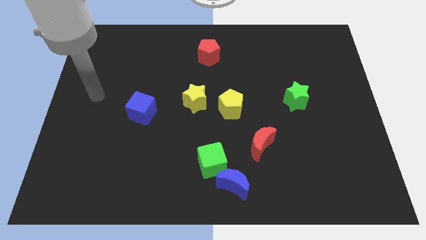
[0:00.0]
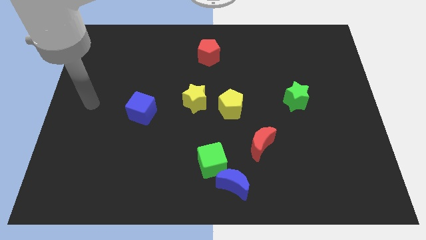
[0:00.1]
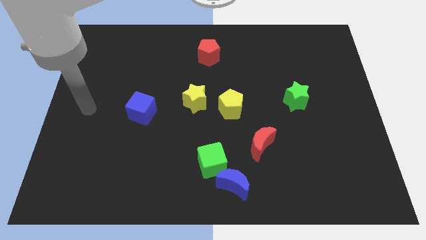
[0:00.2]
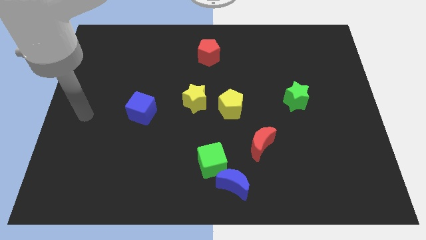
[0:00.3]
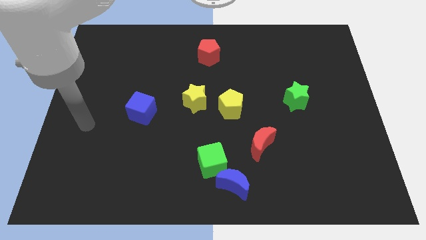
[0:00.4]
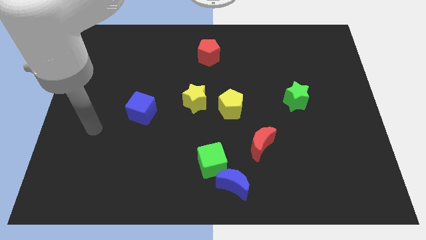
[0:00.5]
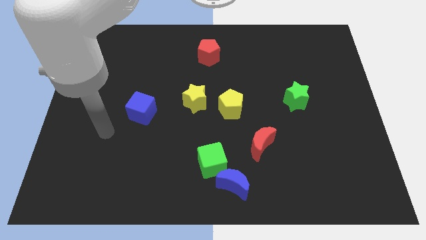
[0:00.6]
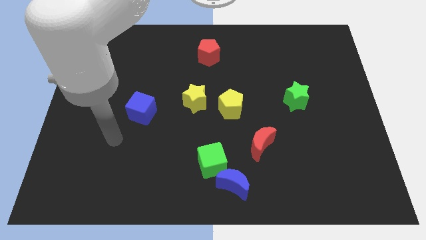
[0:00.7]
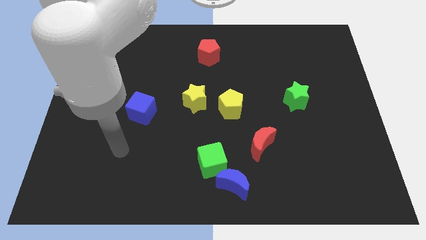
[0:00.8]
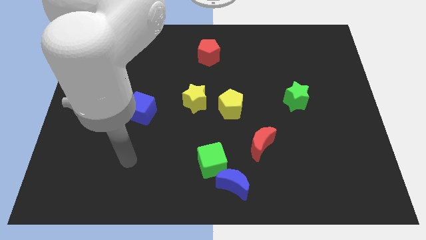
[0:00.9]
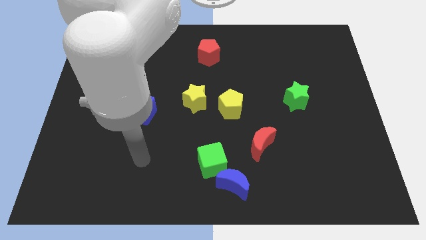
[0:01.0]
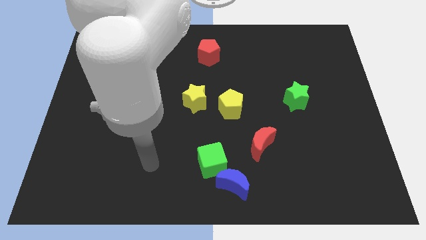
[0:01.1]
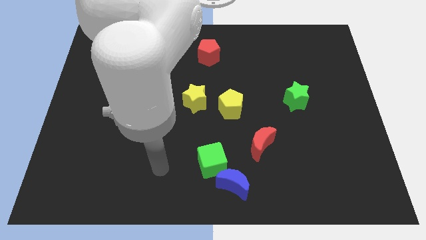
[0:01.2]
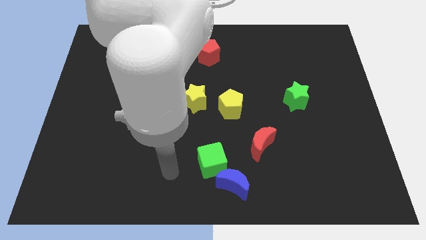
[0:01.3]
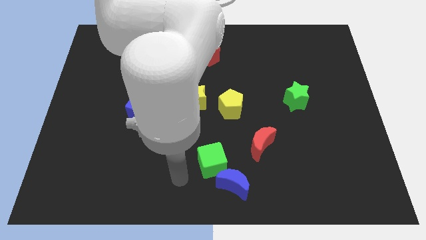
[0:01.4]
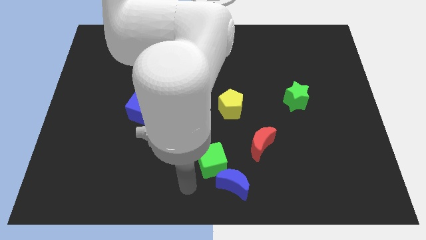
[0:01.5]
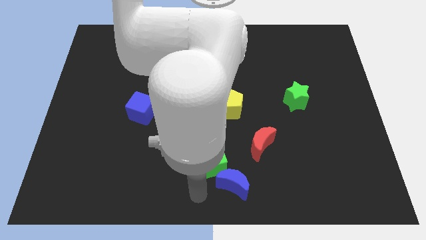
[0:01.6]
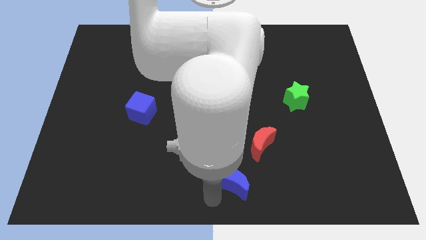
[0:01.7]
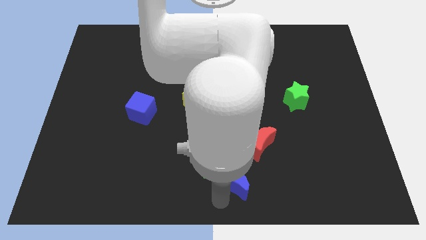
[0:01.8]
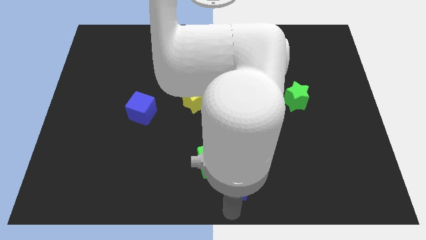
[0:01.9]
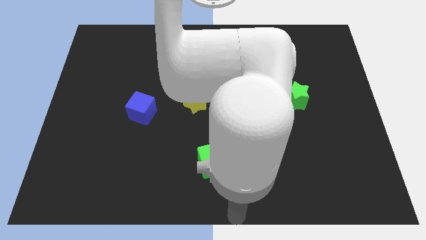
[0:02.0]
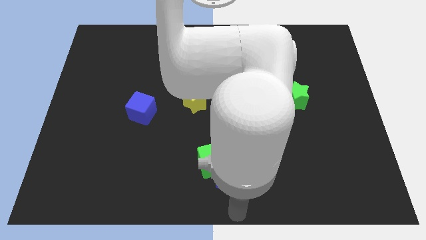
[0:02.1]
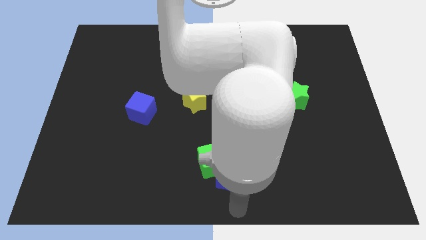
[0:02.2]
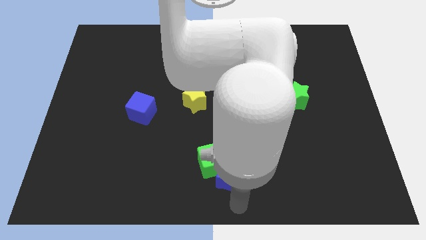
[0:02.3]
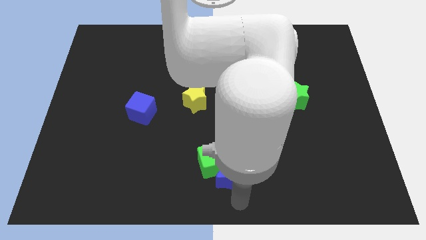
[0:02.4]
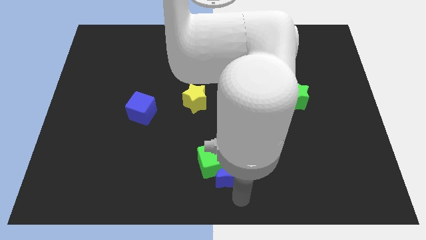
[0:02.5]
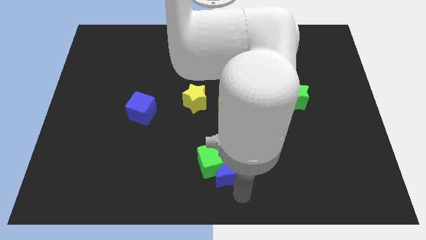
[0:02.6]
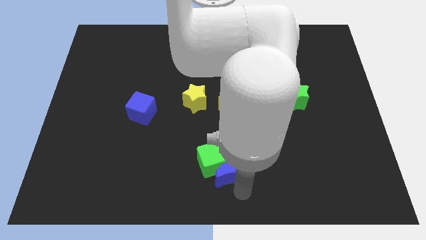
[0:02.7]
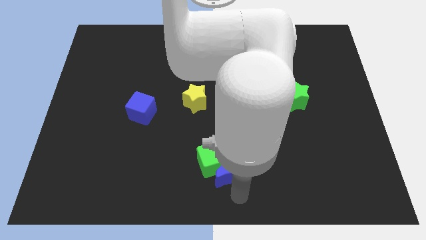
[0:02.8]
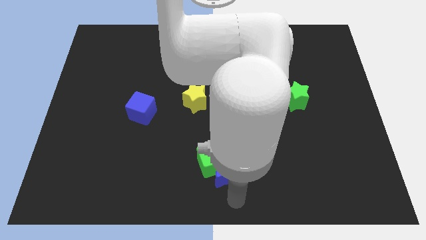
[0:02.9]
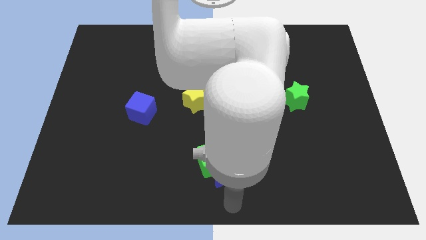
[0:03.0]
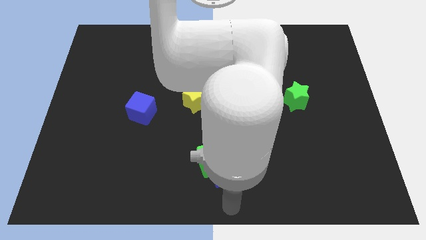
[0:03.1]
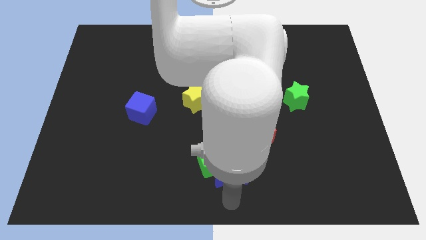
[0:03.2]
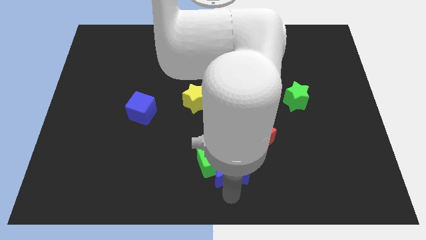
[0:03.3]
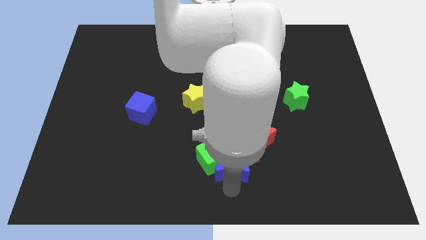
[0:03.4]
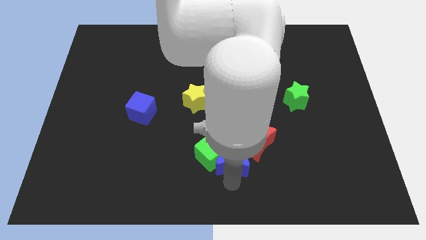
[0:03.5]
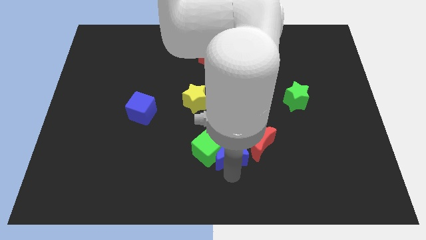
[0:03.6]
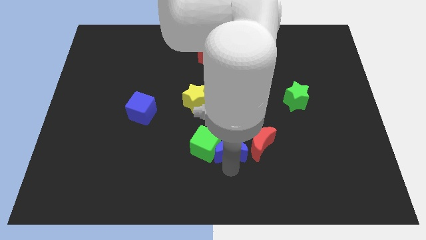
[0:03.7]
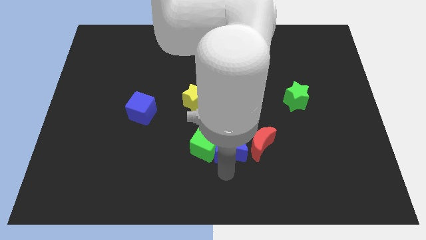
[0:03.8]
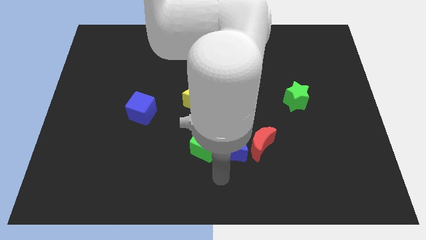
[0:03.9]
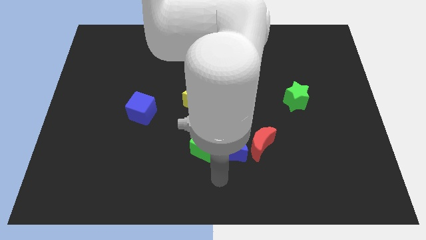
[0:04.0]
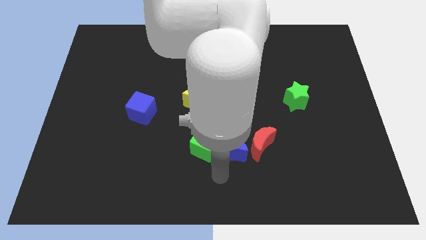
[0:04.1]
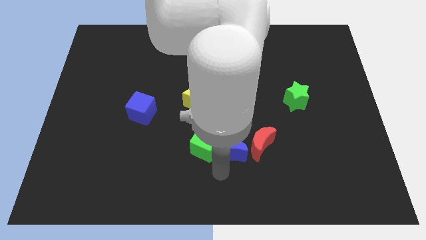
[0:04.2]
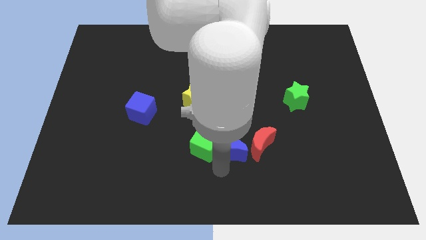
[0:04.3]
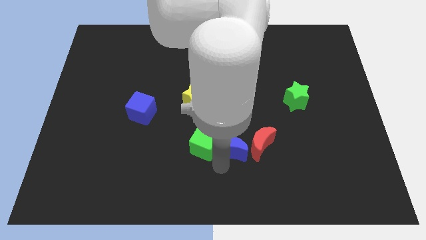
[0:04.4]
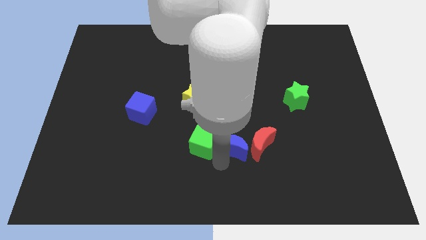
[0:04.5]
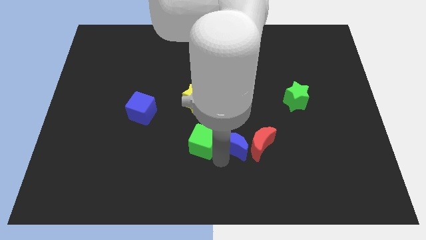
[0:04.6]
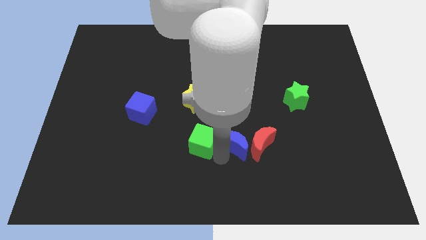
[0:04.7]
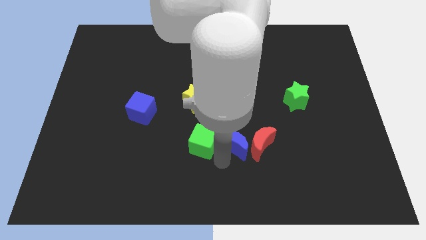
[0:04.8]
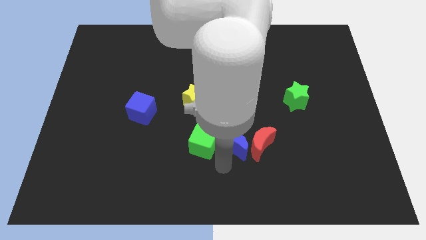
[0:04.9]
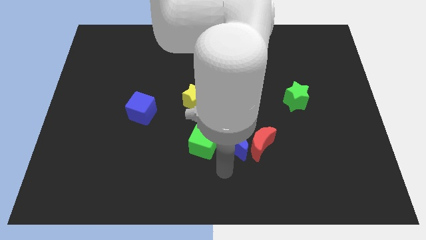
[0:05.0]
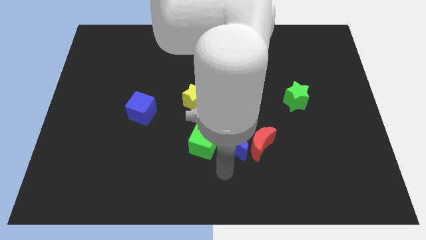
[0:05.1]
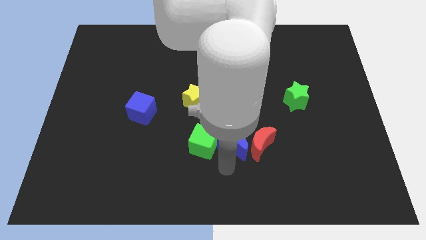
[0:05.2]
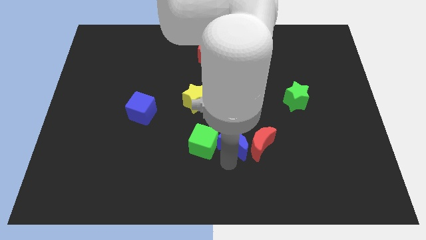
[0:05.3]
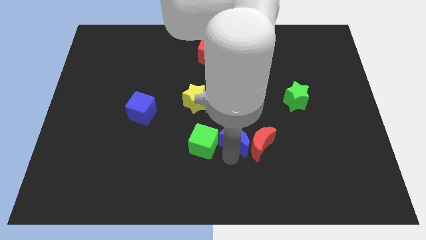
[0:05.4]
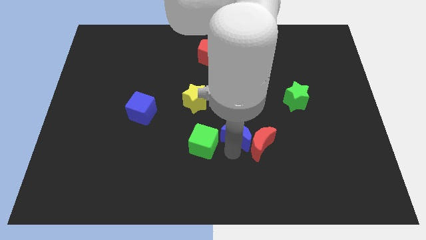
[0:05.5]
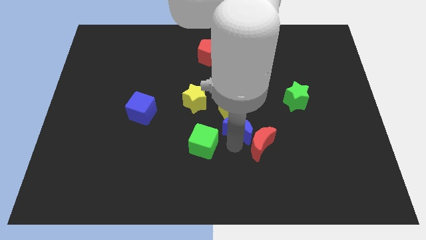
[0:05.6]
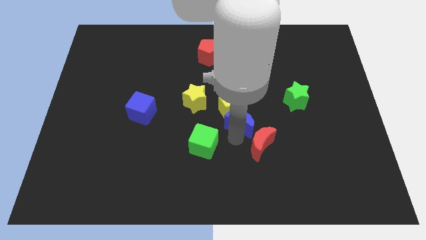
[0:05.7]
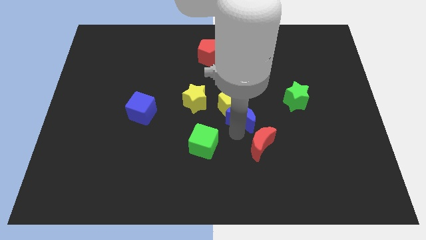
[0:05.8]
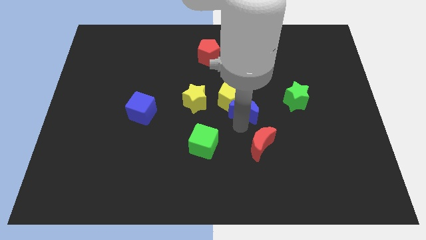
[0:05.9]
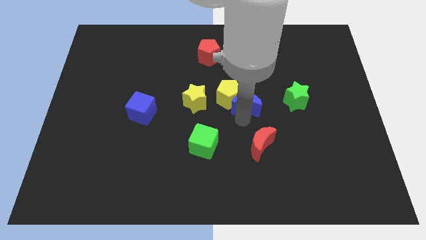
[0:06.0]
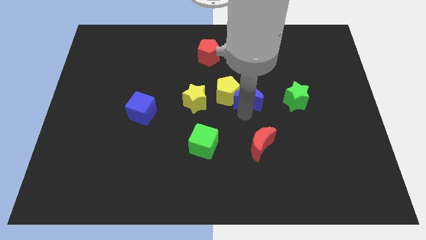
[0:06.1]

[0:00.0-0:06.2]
slide the blue moon up

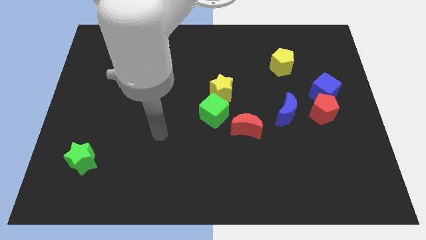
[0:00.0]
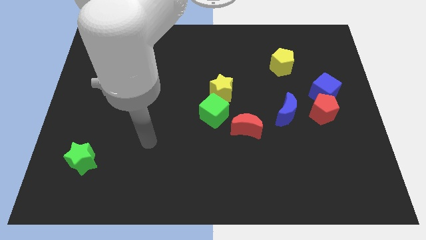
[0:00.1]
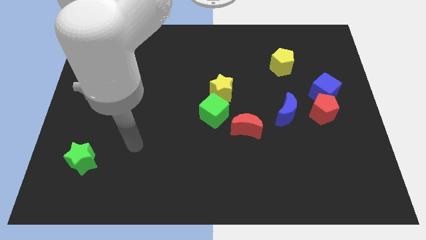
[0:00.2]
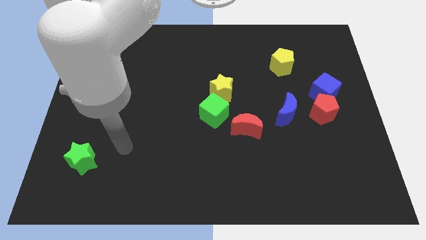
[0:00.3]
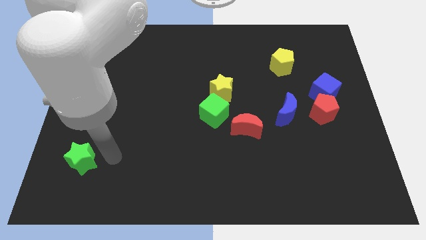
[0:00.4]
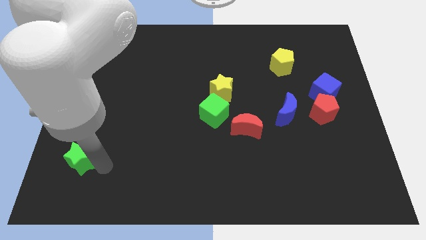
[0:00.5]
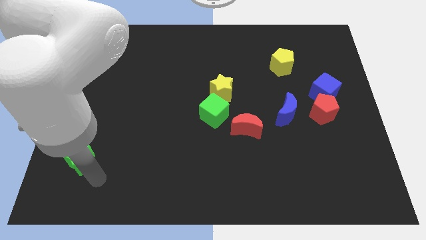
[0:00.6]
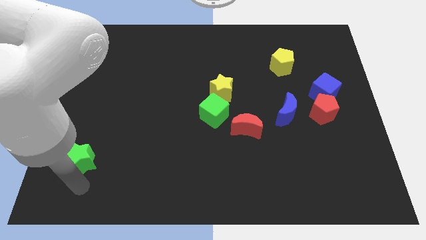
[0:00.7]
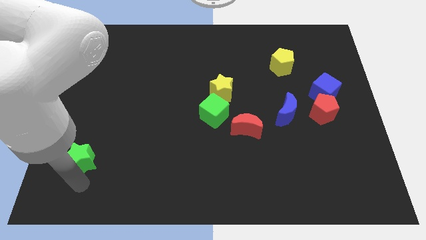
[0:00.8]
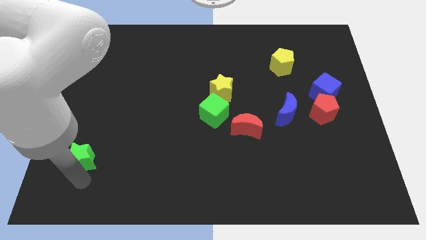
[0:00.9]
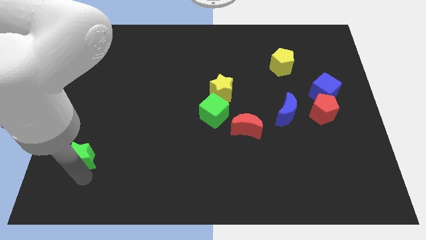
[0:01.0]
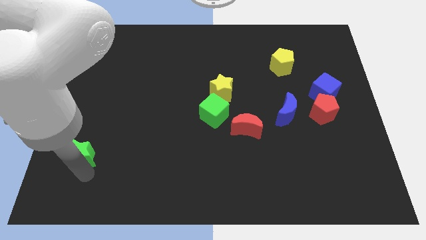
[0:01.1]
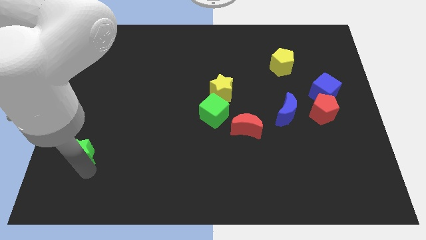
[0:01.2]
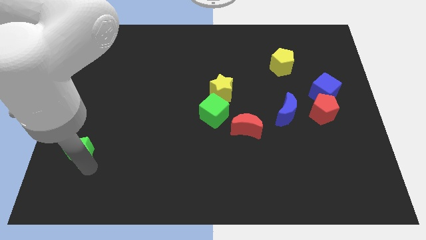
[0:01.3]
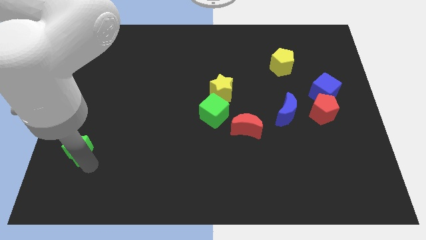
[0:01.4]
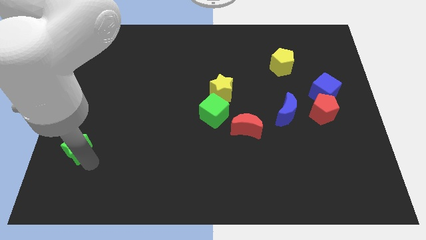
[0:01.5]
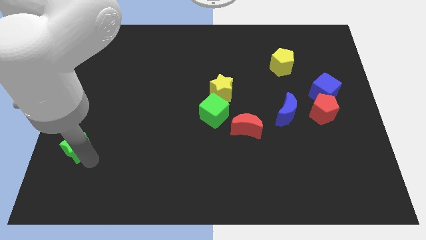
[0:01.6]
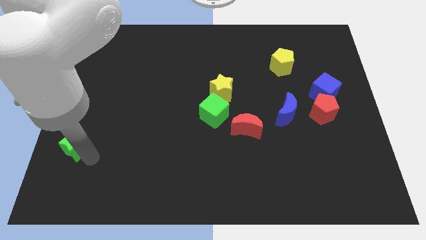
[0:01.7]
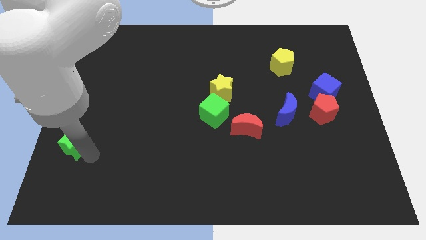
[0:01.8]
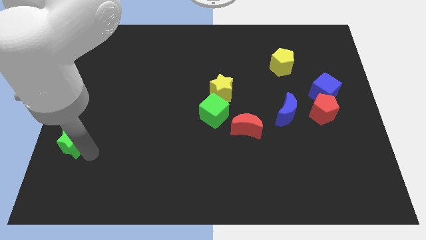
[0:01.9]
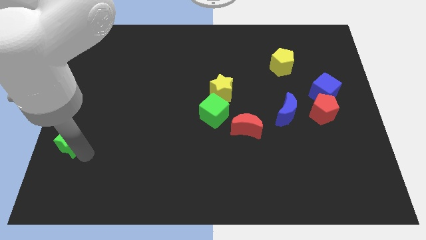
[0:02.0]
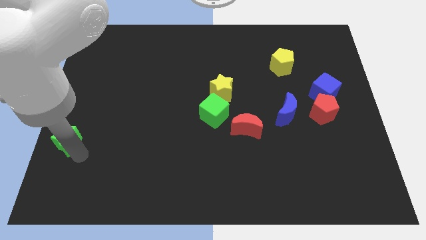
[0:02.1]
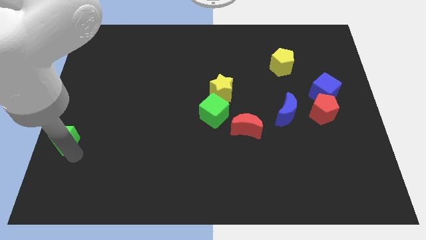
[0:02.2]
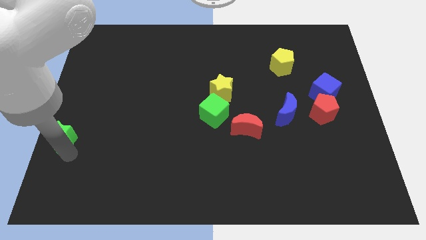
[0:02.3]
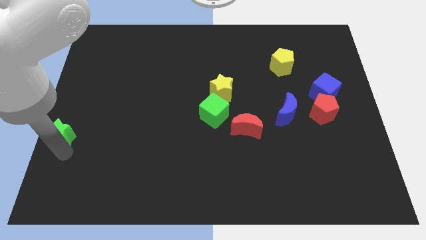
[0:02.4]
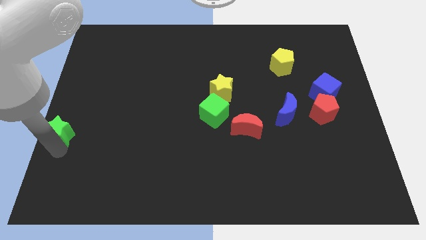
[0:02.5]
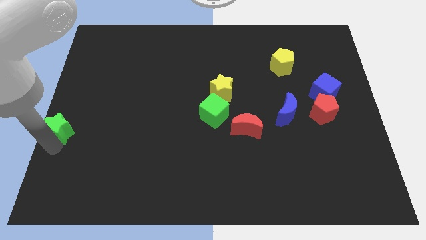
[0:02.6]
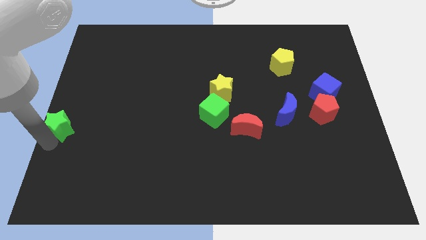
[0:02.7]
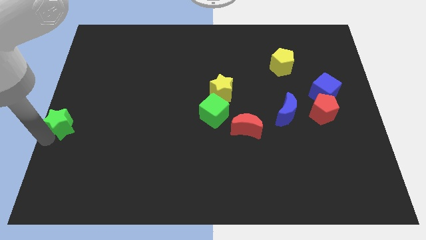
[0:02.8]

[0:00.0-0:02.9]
push the green star slightly upwards
